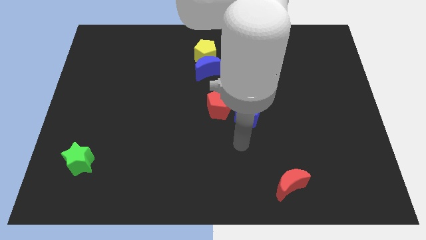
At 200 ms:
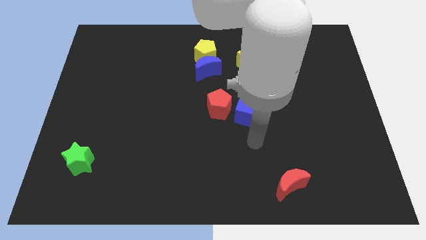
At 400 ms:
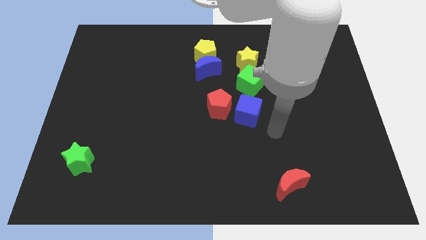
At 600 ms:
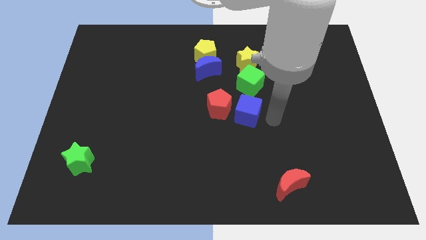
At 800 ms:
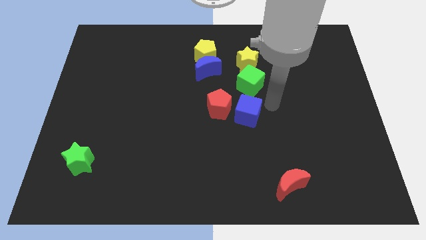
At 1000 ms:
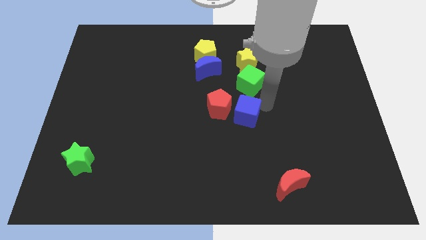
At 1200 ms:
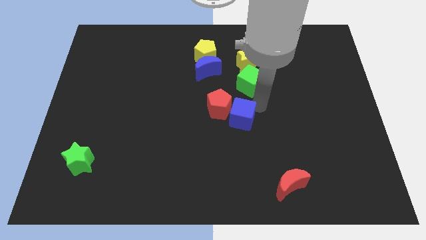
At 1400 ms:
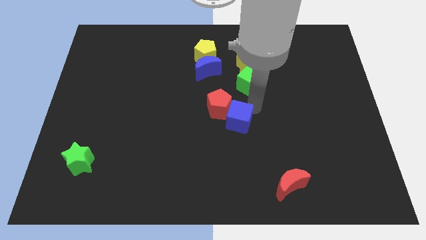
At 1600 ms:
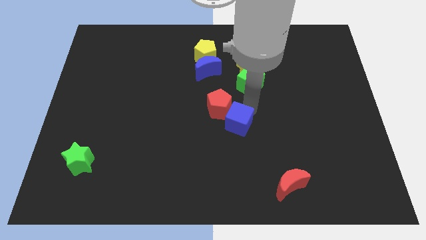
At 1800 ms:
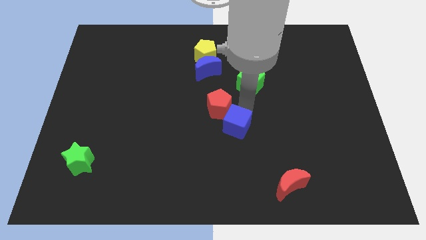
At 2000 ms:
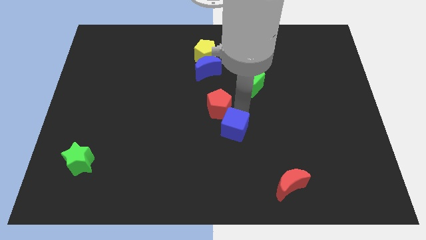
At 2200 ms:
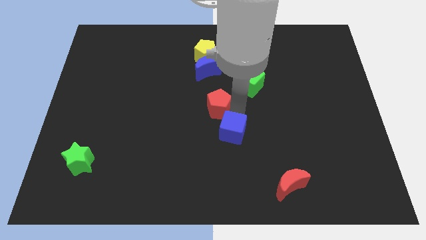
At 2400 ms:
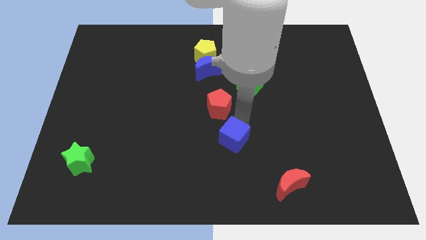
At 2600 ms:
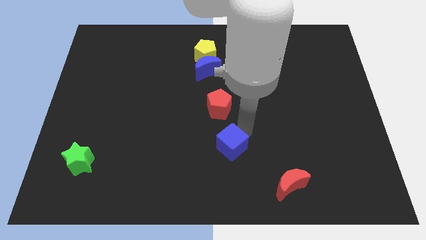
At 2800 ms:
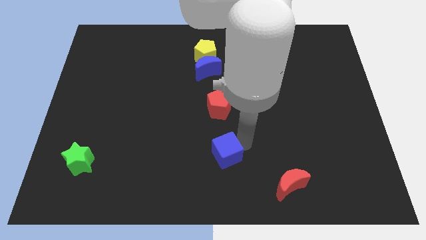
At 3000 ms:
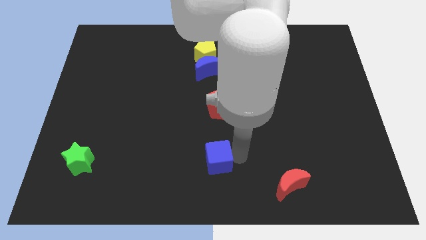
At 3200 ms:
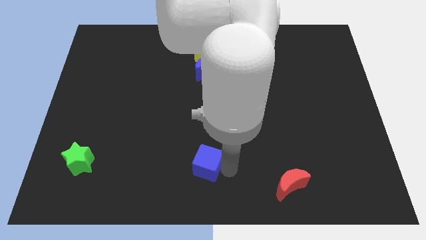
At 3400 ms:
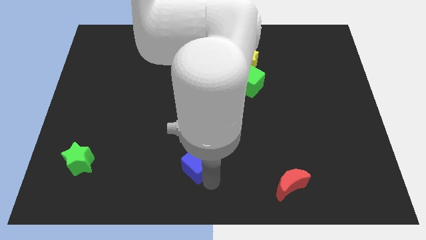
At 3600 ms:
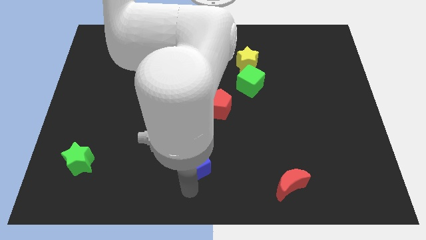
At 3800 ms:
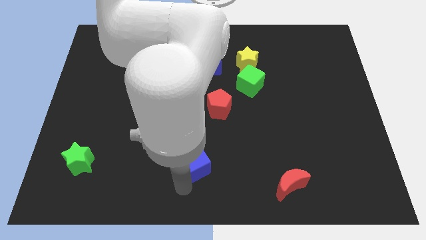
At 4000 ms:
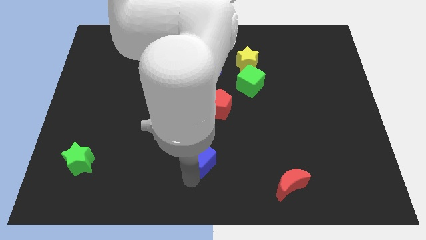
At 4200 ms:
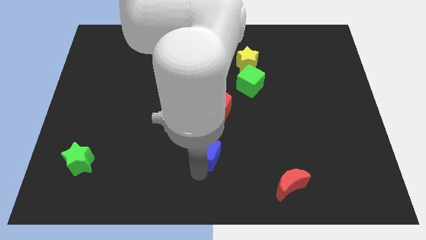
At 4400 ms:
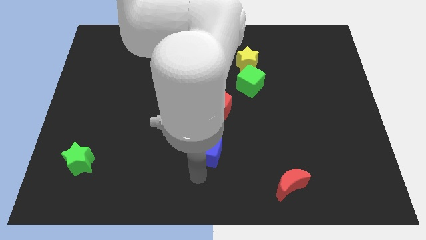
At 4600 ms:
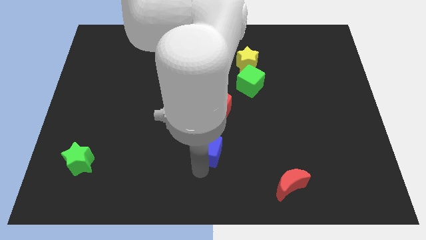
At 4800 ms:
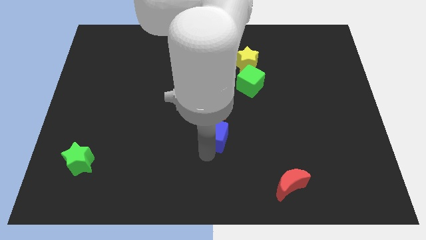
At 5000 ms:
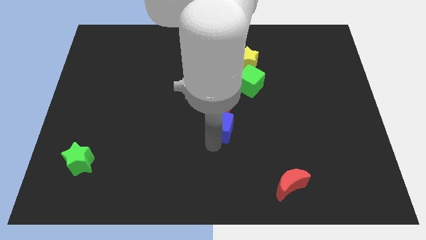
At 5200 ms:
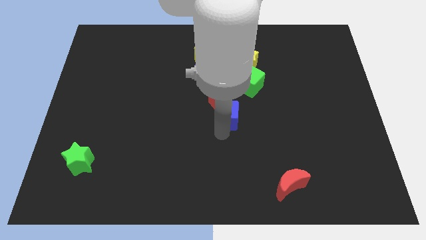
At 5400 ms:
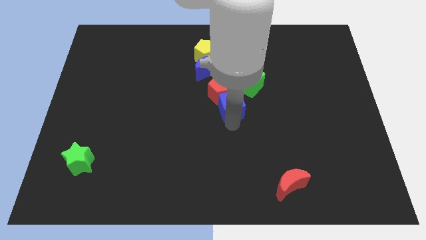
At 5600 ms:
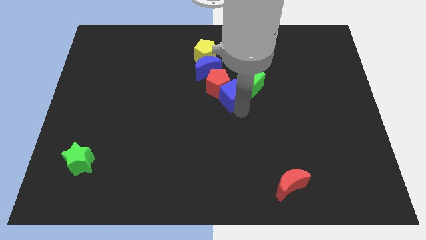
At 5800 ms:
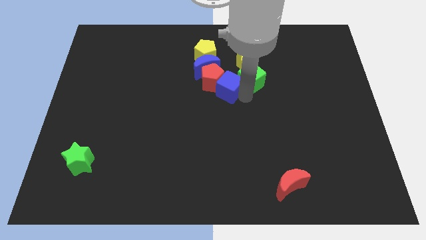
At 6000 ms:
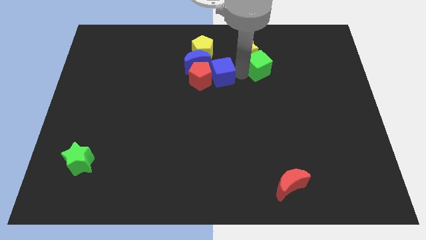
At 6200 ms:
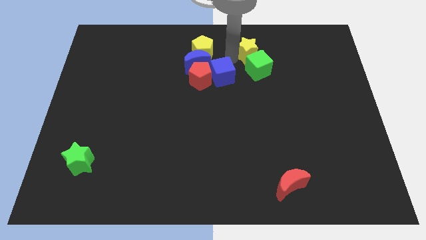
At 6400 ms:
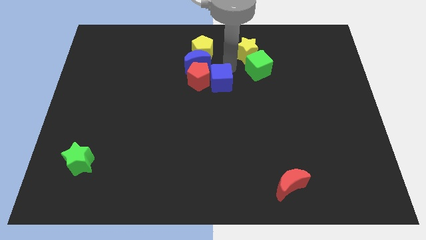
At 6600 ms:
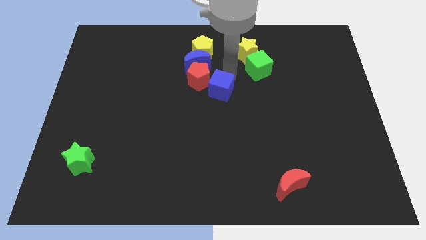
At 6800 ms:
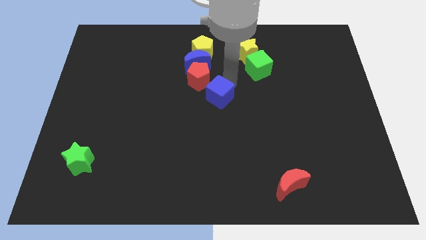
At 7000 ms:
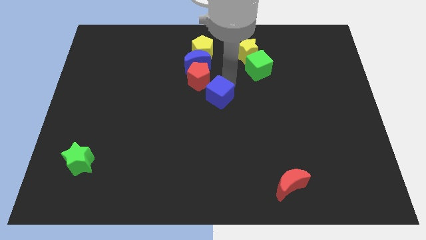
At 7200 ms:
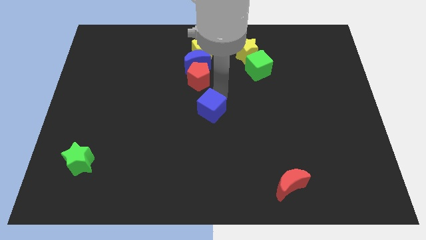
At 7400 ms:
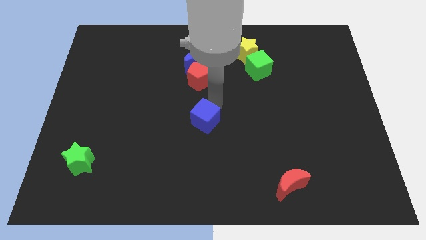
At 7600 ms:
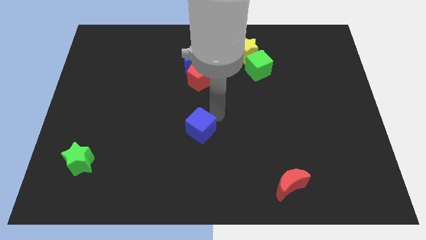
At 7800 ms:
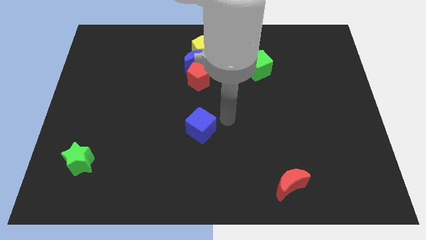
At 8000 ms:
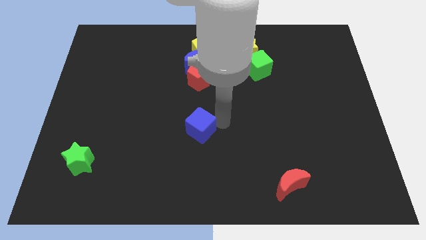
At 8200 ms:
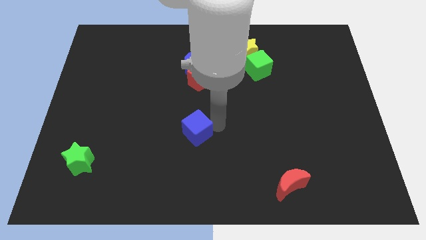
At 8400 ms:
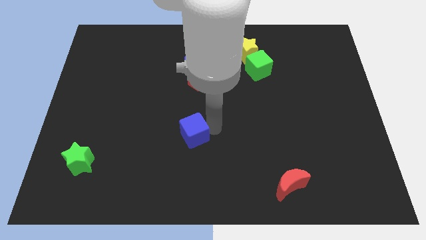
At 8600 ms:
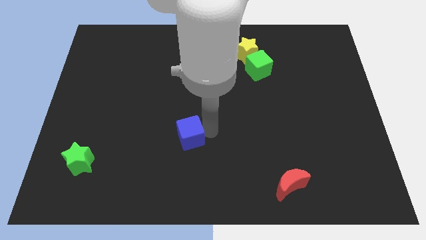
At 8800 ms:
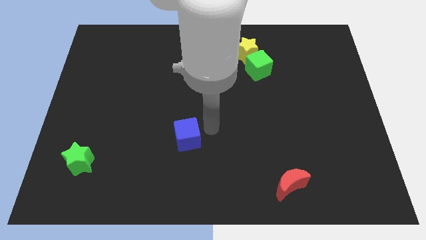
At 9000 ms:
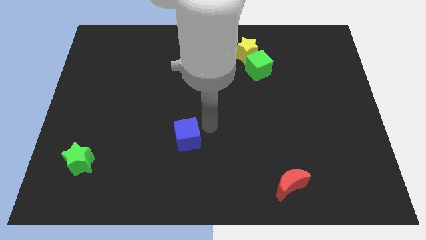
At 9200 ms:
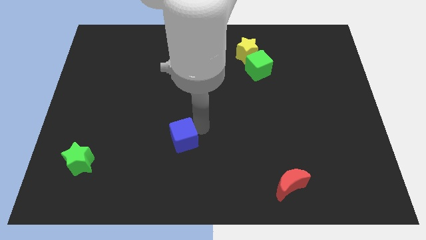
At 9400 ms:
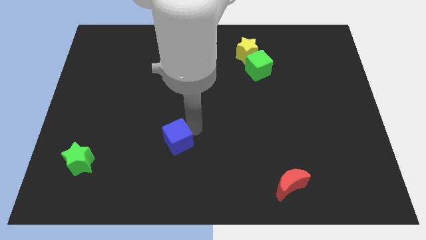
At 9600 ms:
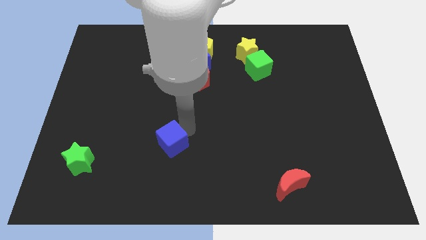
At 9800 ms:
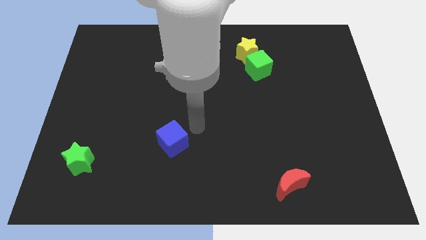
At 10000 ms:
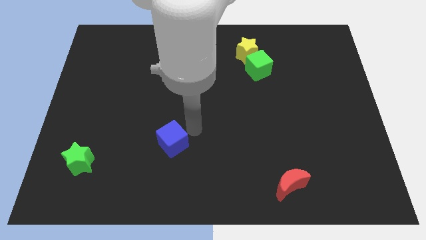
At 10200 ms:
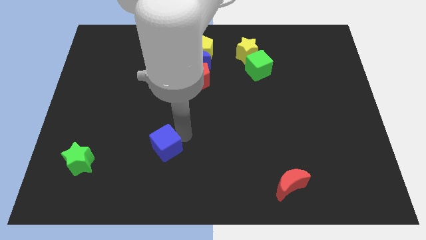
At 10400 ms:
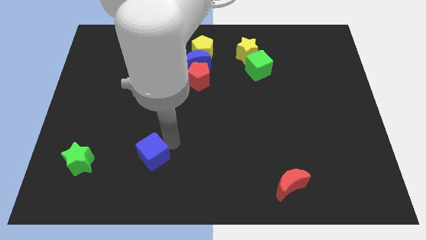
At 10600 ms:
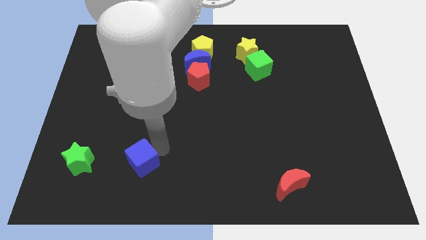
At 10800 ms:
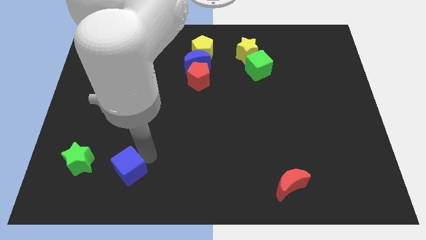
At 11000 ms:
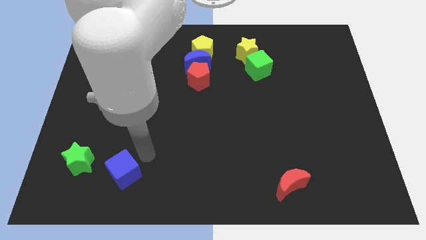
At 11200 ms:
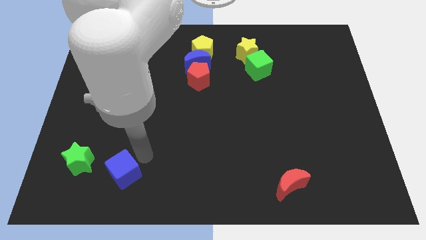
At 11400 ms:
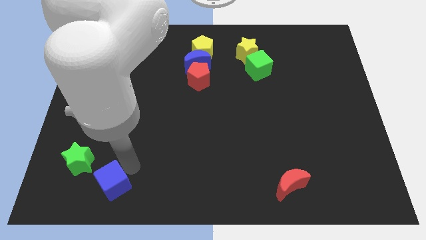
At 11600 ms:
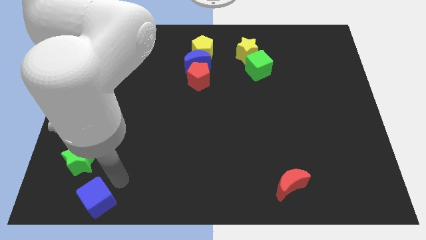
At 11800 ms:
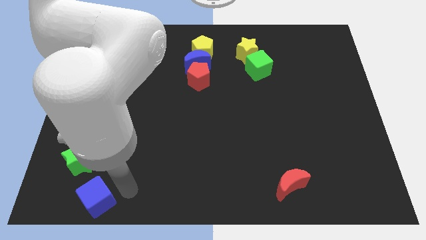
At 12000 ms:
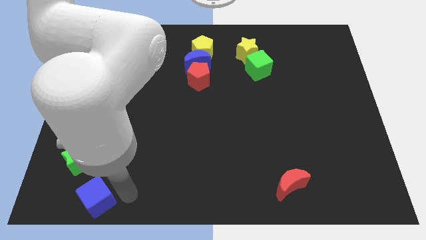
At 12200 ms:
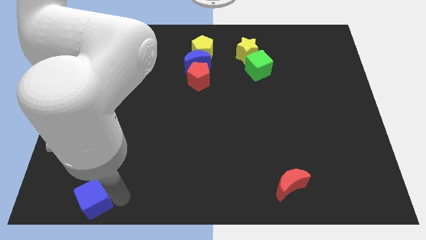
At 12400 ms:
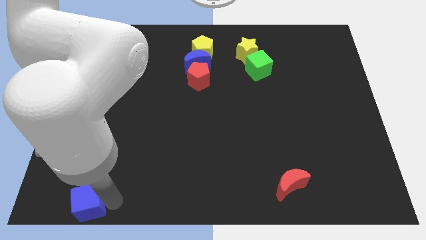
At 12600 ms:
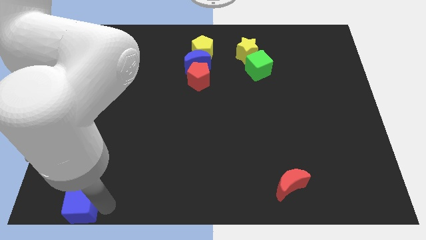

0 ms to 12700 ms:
put the blue cube to the bottom left corner

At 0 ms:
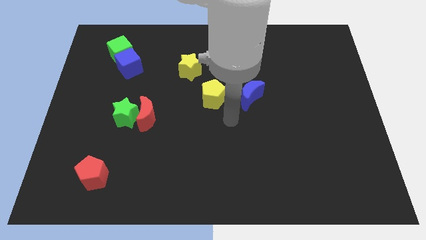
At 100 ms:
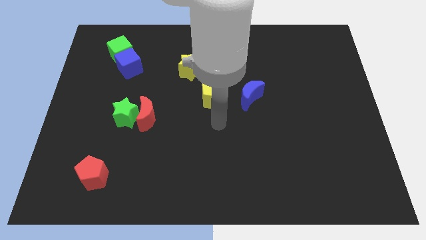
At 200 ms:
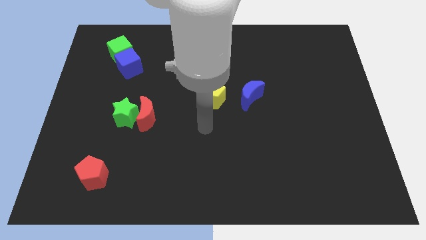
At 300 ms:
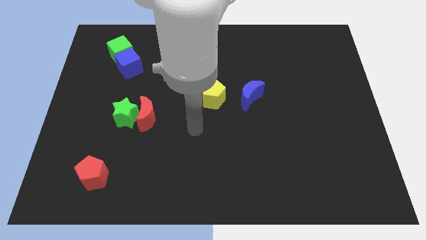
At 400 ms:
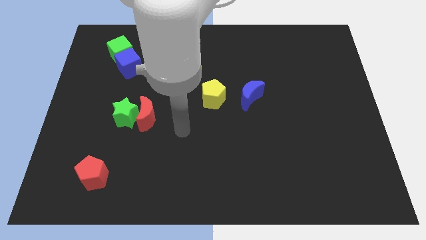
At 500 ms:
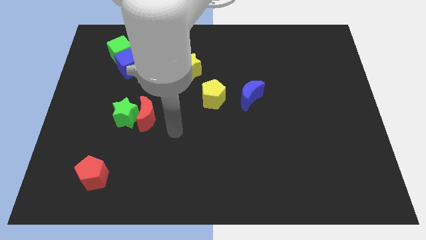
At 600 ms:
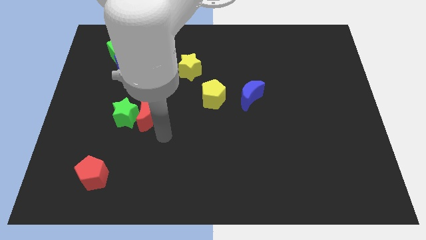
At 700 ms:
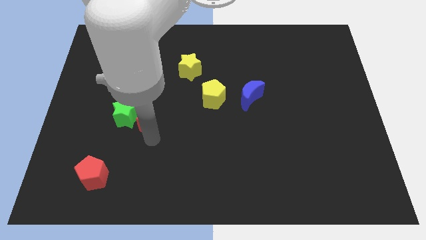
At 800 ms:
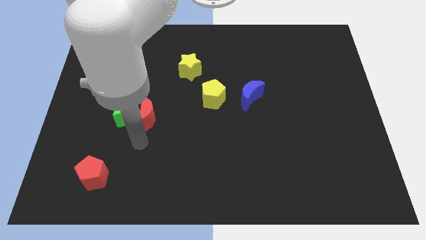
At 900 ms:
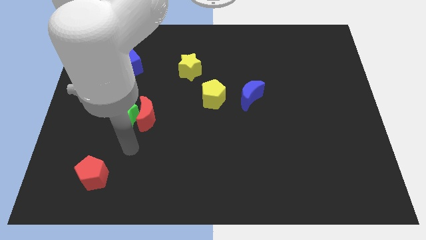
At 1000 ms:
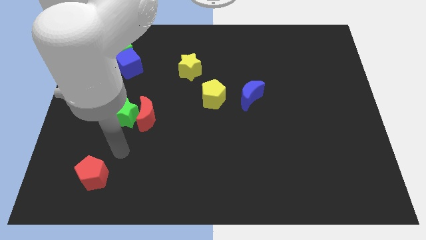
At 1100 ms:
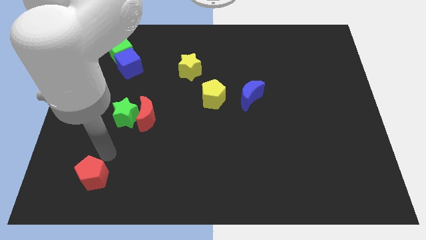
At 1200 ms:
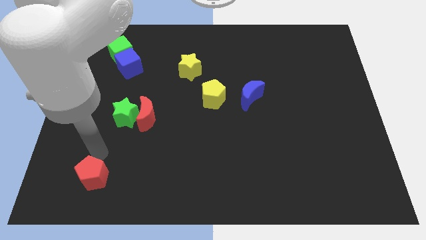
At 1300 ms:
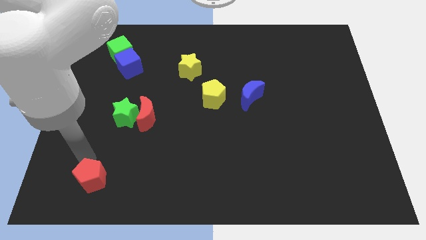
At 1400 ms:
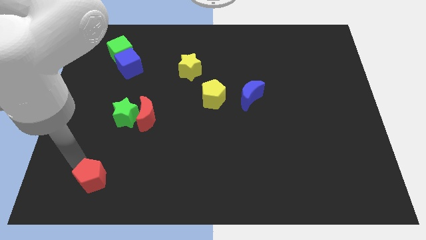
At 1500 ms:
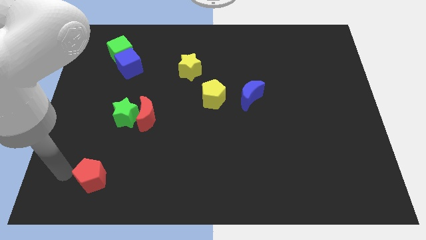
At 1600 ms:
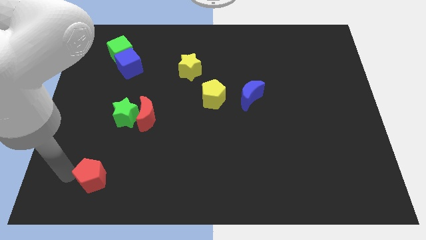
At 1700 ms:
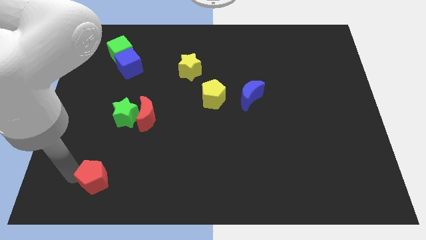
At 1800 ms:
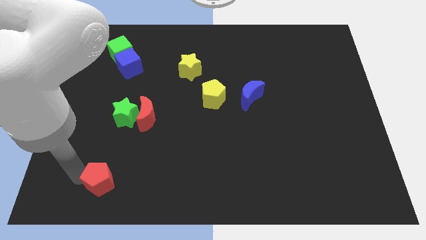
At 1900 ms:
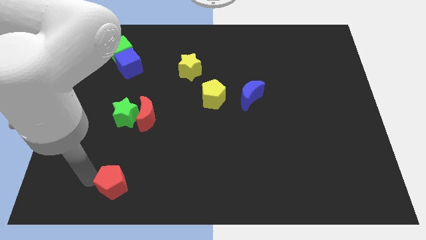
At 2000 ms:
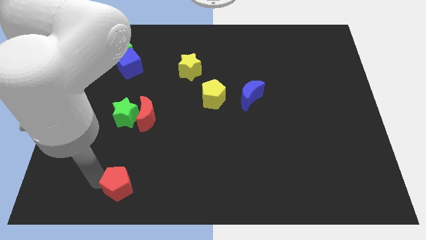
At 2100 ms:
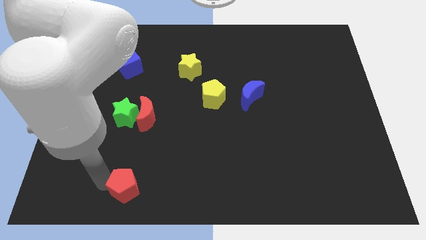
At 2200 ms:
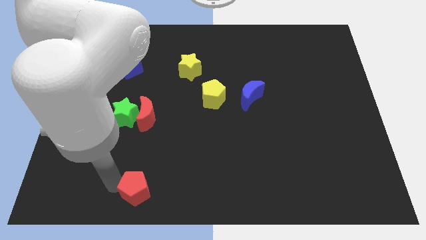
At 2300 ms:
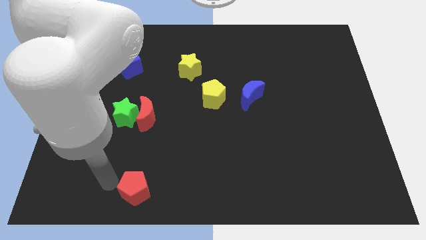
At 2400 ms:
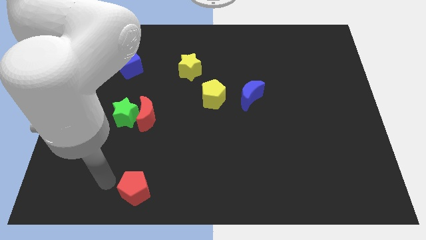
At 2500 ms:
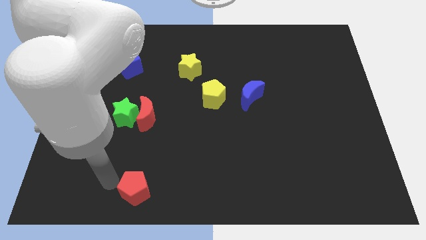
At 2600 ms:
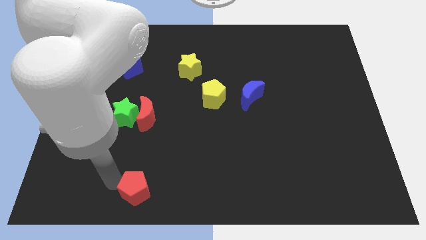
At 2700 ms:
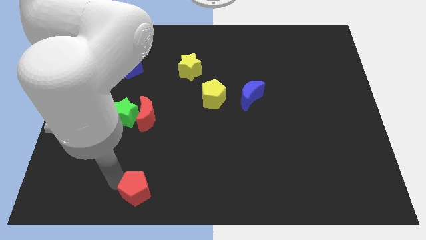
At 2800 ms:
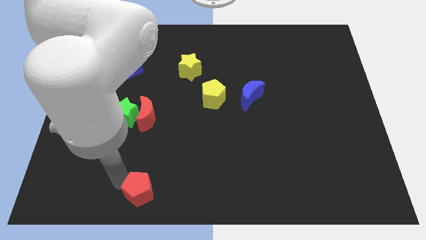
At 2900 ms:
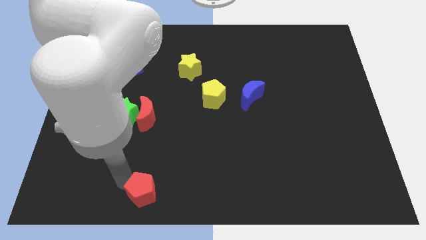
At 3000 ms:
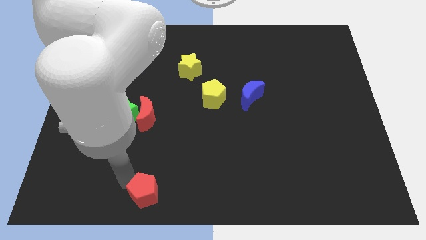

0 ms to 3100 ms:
move the red pentagon to the bottom
